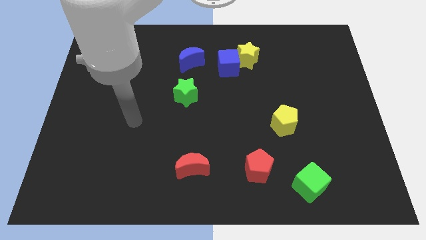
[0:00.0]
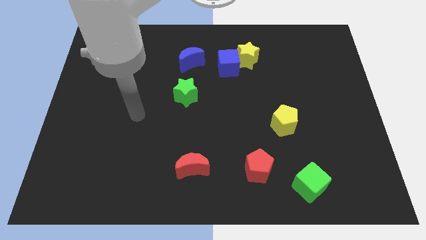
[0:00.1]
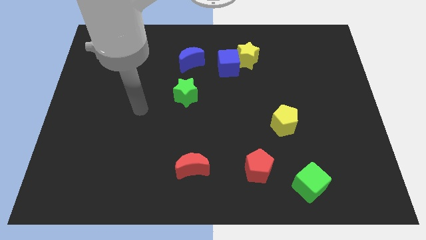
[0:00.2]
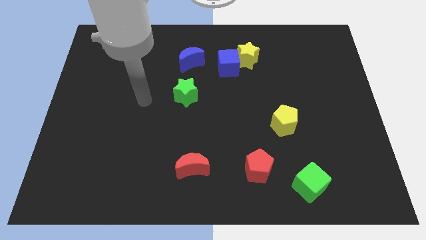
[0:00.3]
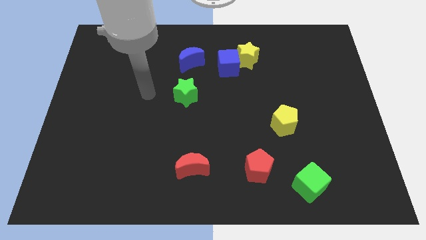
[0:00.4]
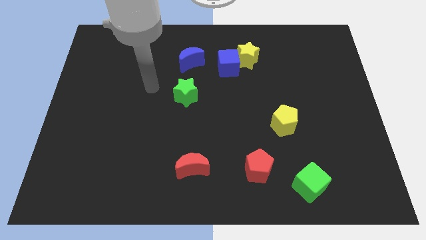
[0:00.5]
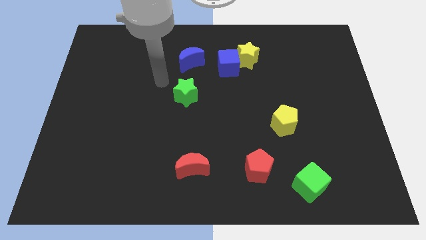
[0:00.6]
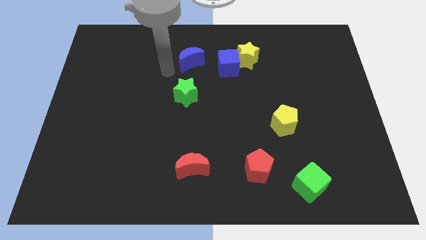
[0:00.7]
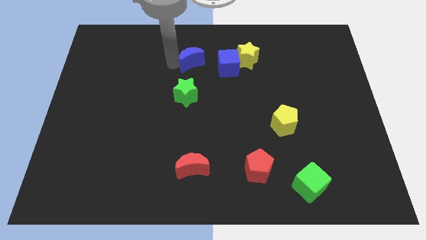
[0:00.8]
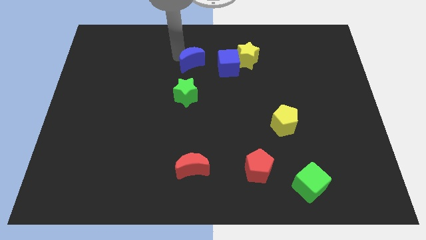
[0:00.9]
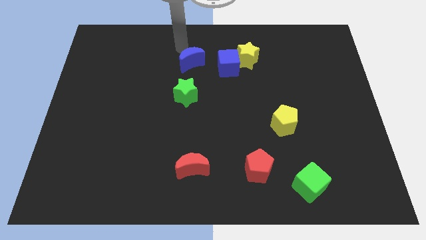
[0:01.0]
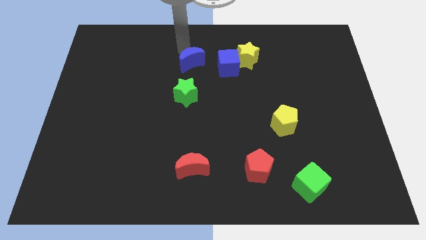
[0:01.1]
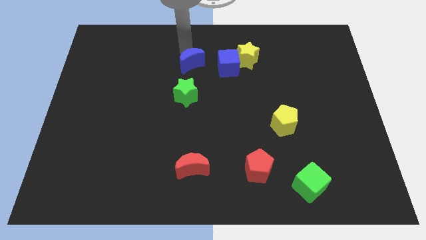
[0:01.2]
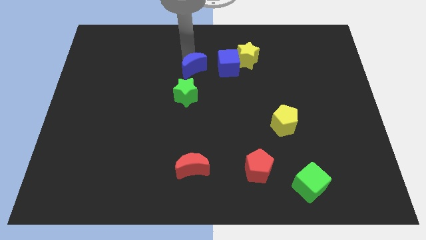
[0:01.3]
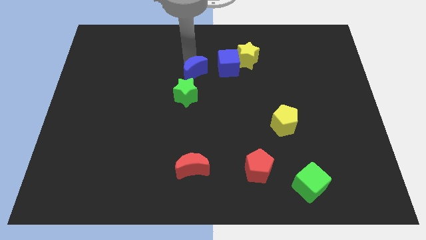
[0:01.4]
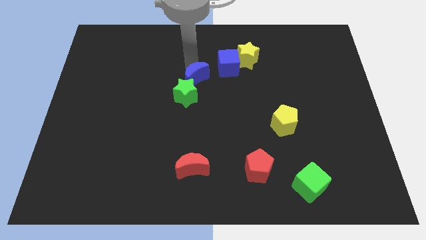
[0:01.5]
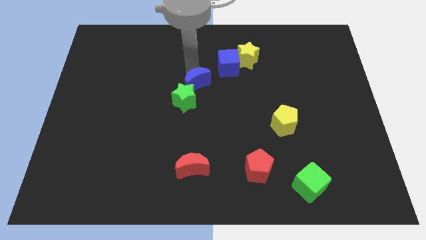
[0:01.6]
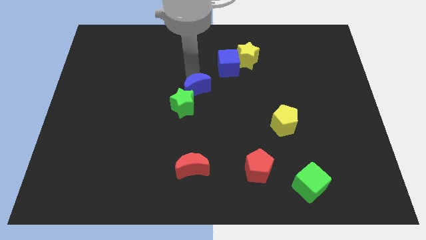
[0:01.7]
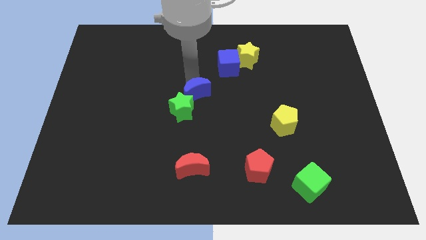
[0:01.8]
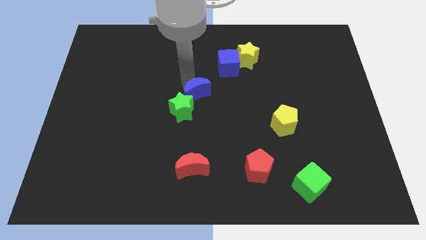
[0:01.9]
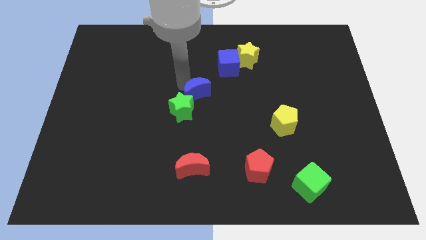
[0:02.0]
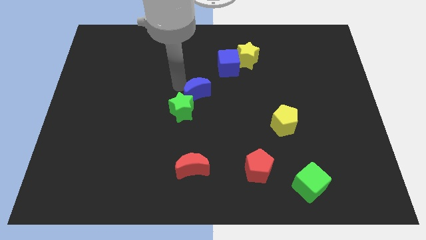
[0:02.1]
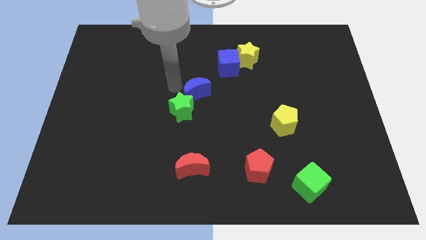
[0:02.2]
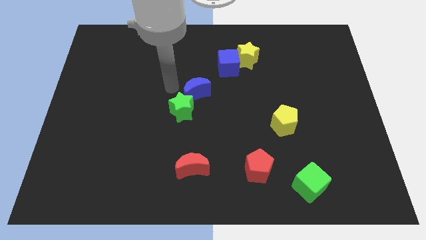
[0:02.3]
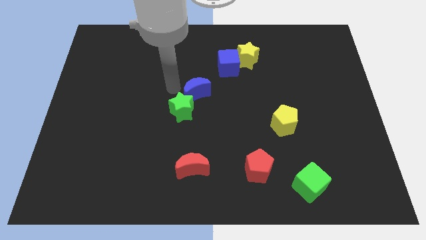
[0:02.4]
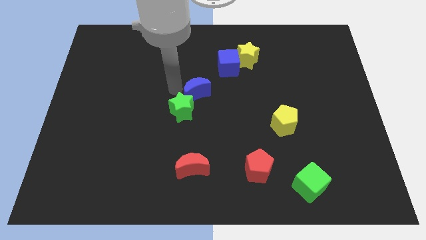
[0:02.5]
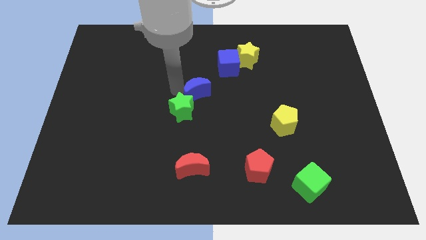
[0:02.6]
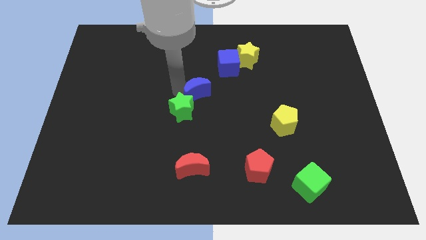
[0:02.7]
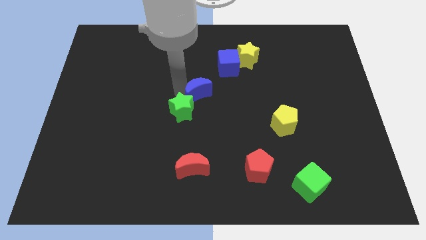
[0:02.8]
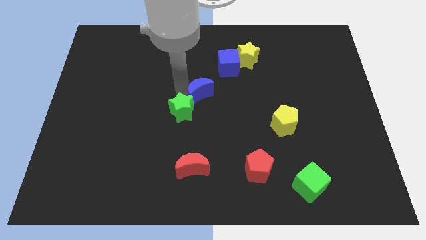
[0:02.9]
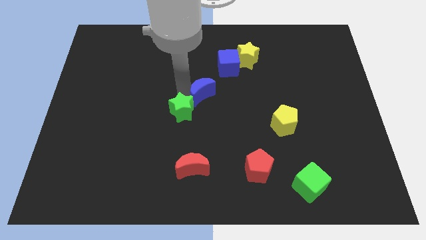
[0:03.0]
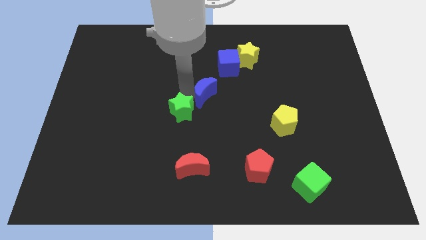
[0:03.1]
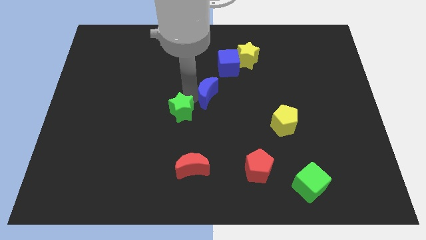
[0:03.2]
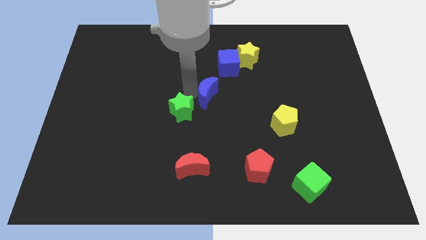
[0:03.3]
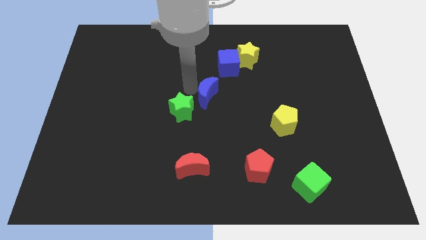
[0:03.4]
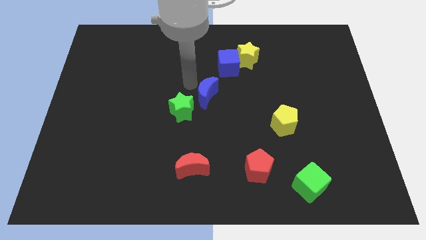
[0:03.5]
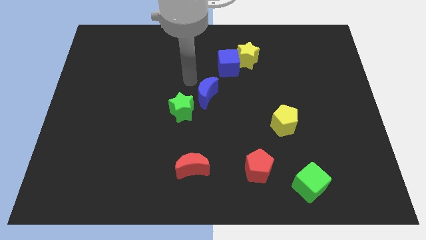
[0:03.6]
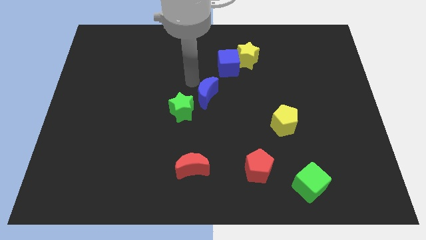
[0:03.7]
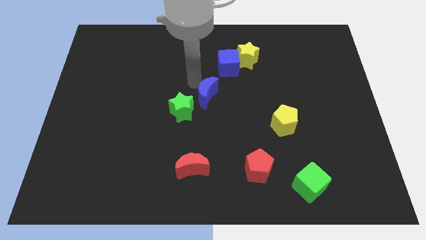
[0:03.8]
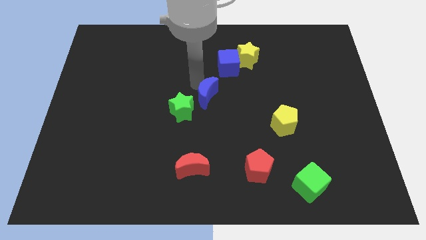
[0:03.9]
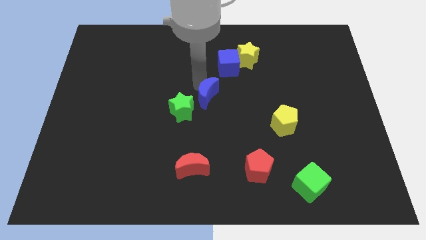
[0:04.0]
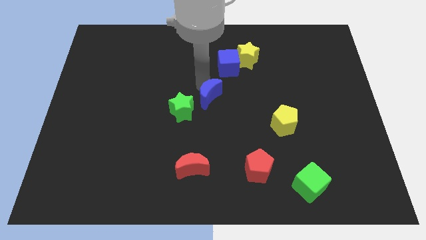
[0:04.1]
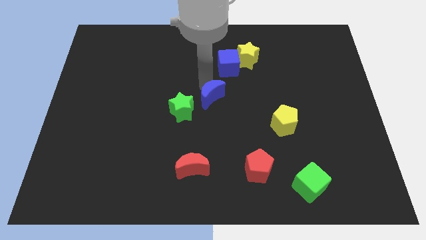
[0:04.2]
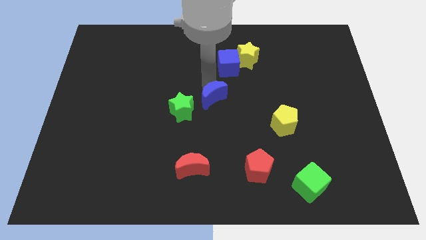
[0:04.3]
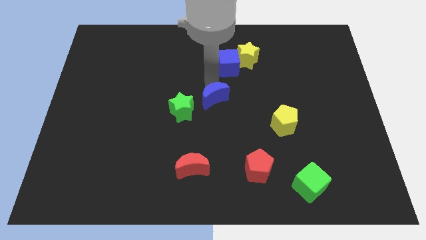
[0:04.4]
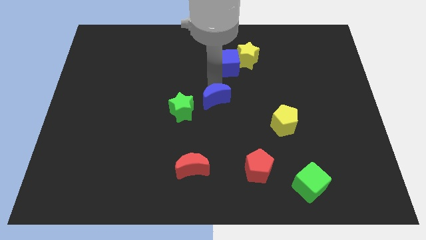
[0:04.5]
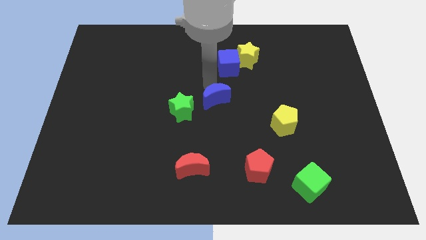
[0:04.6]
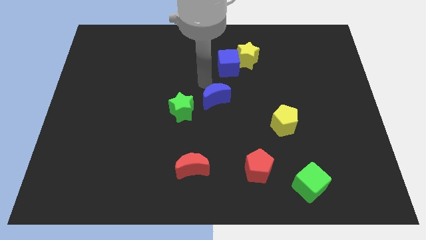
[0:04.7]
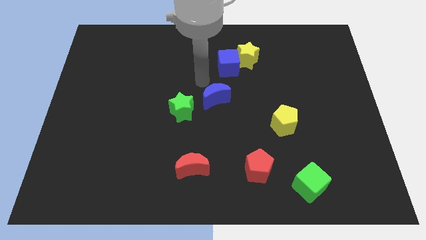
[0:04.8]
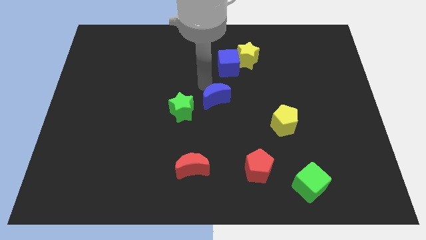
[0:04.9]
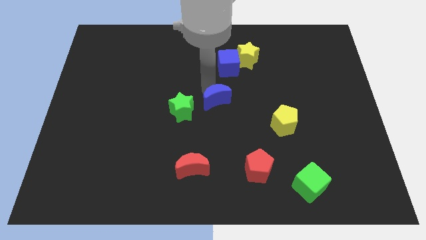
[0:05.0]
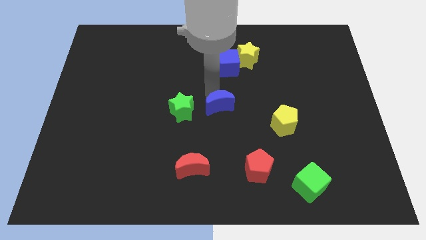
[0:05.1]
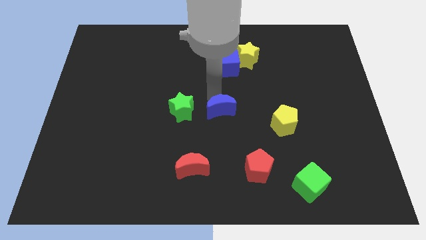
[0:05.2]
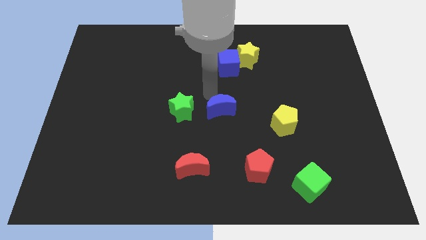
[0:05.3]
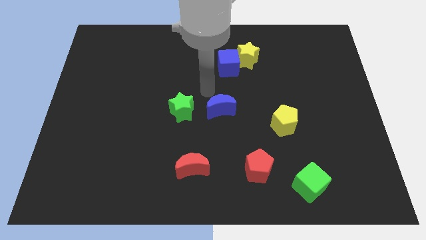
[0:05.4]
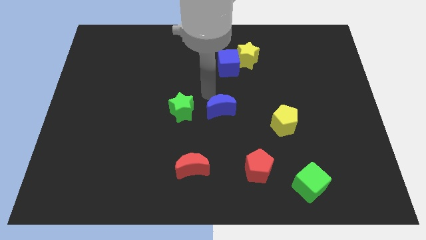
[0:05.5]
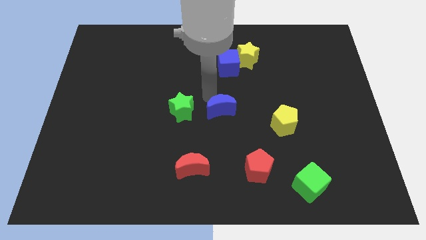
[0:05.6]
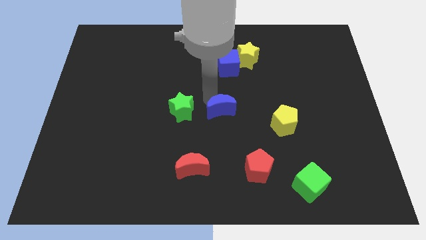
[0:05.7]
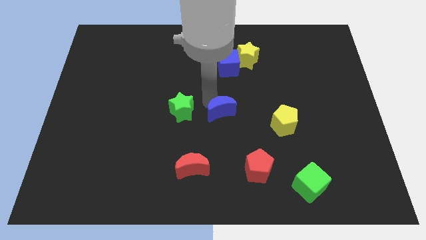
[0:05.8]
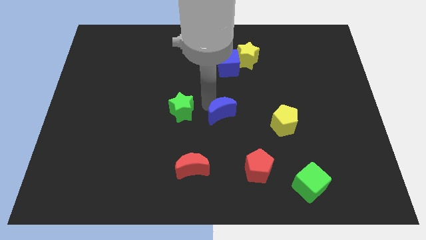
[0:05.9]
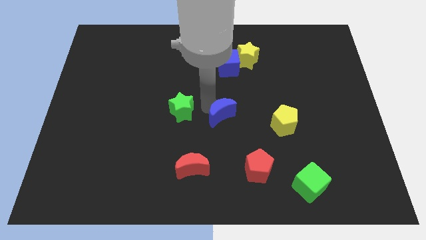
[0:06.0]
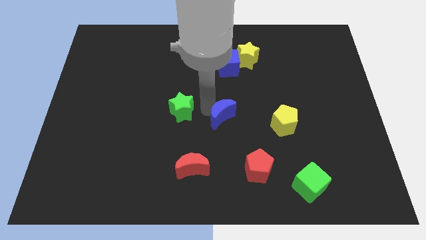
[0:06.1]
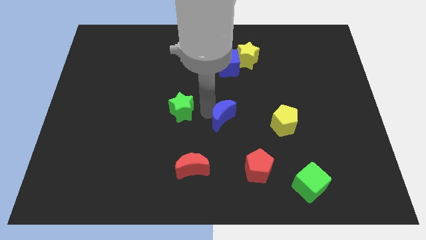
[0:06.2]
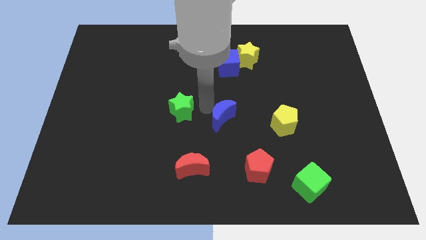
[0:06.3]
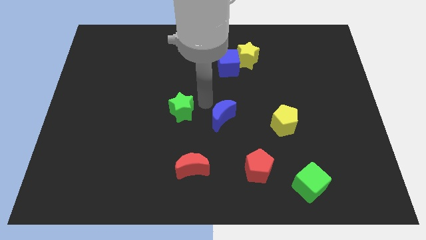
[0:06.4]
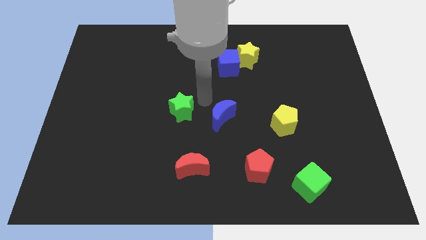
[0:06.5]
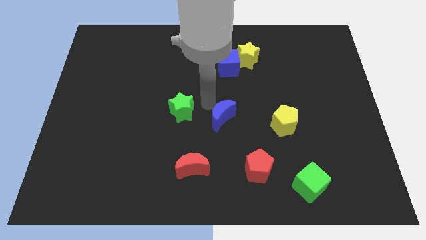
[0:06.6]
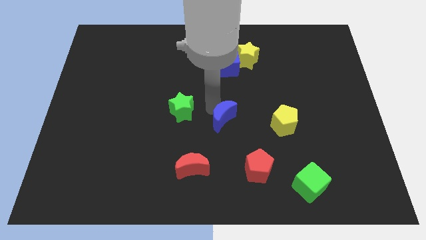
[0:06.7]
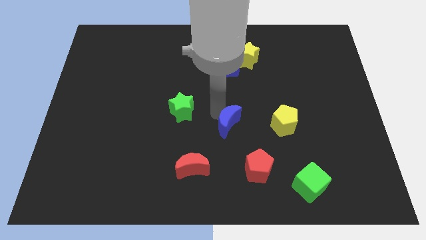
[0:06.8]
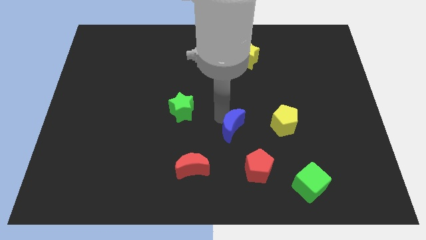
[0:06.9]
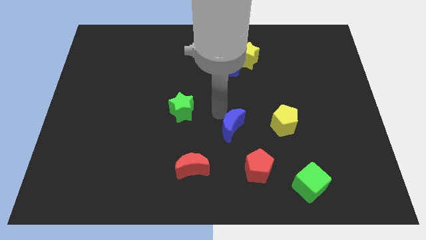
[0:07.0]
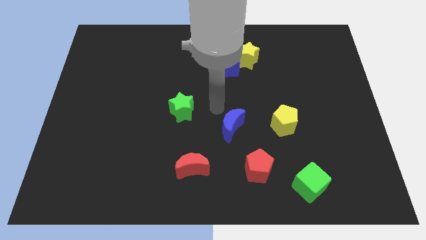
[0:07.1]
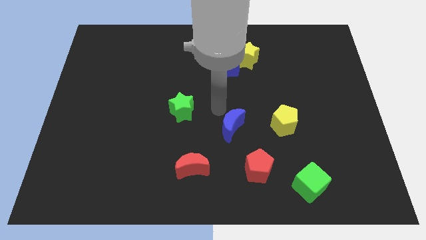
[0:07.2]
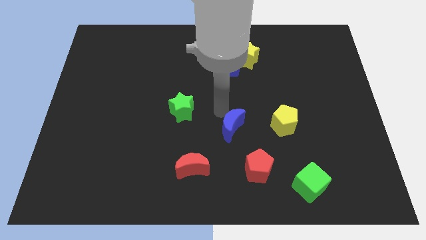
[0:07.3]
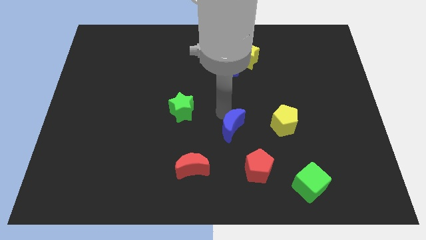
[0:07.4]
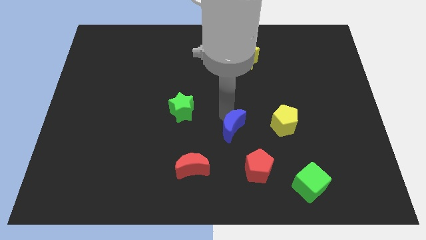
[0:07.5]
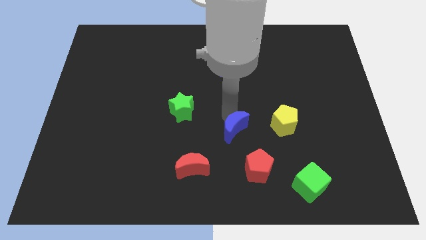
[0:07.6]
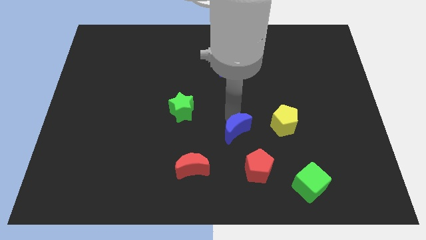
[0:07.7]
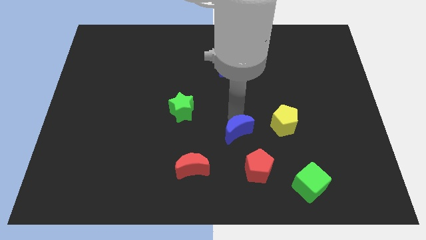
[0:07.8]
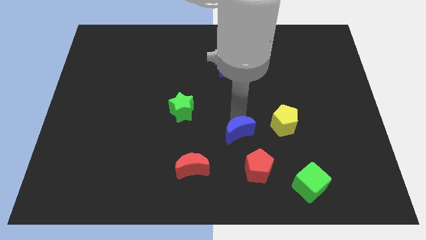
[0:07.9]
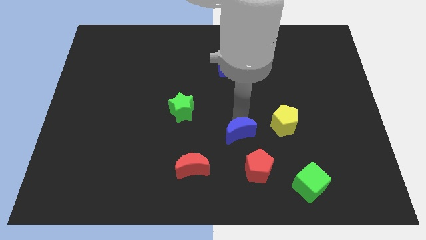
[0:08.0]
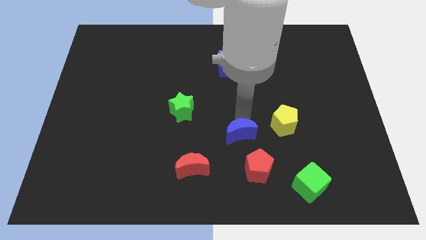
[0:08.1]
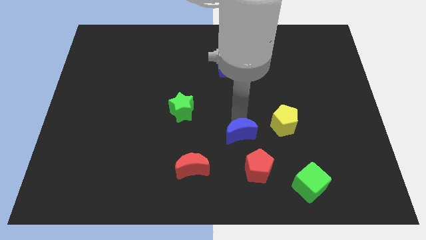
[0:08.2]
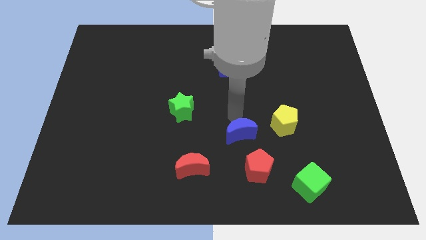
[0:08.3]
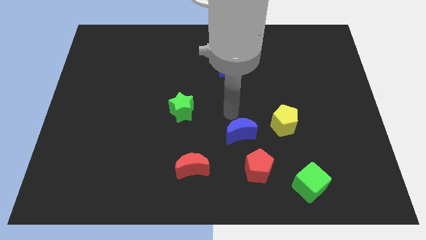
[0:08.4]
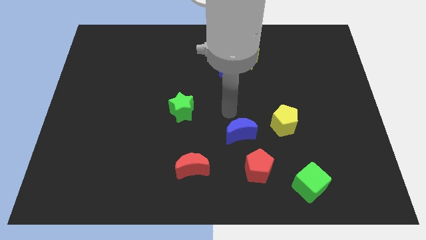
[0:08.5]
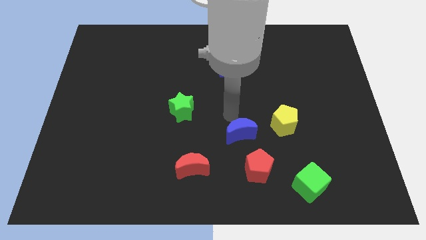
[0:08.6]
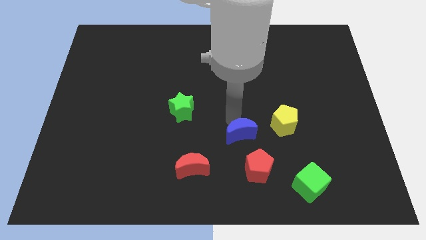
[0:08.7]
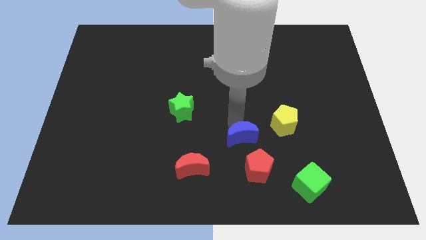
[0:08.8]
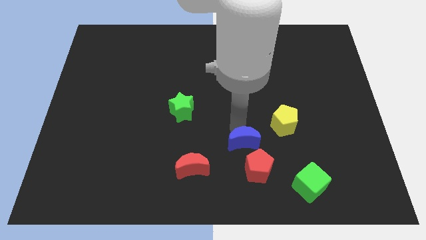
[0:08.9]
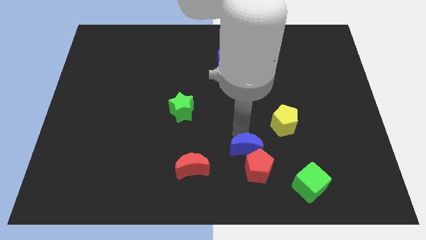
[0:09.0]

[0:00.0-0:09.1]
slide the blue moon to the red pentagon
